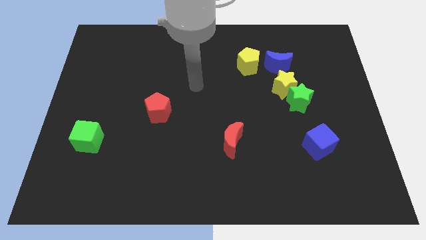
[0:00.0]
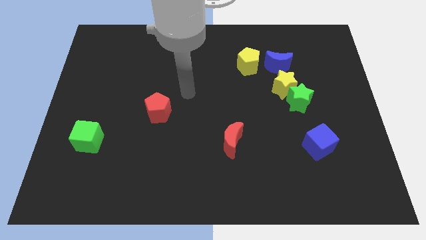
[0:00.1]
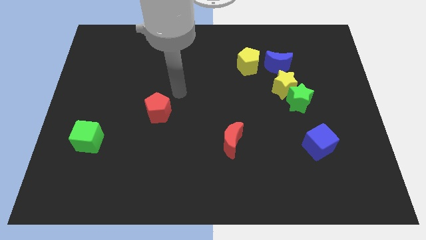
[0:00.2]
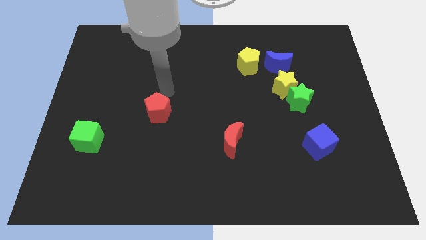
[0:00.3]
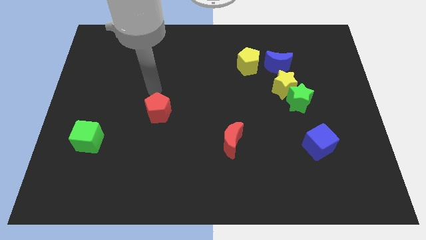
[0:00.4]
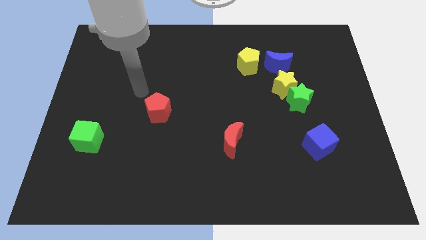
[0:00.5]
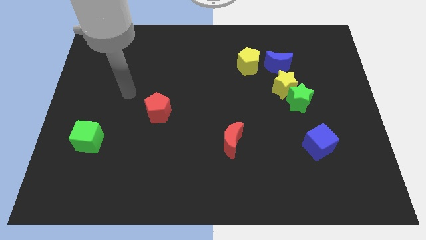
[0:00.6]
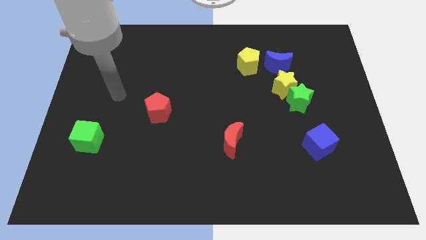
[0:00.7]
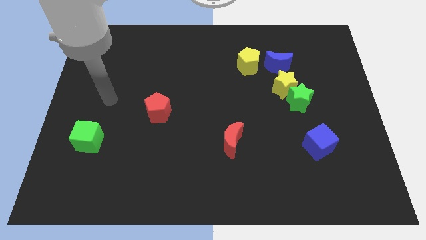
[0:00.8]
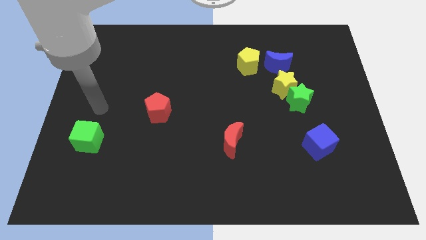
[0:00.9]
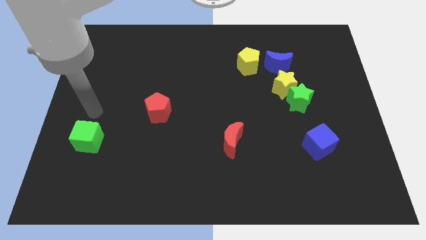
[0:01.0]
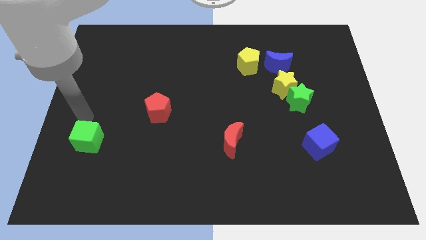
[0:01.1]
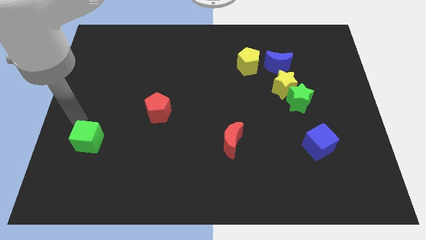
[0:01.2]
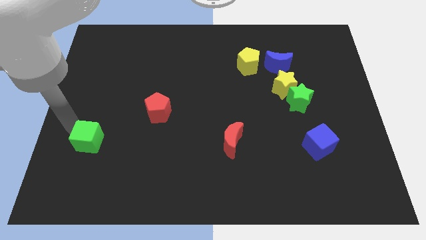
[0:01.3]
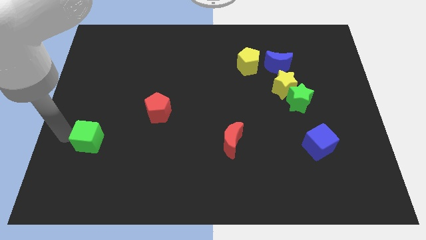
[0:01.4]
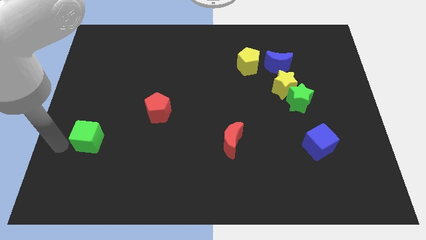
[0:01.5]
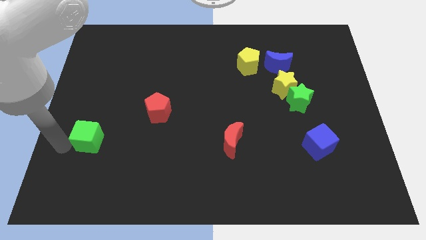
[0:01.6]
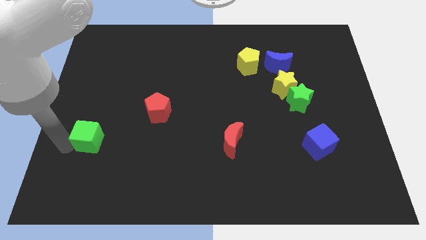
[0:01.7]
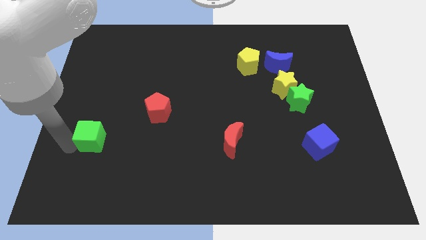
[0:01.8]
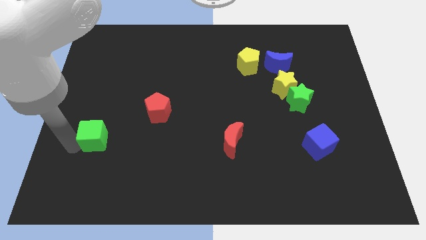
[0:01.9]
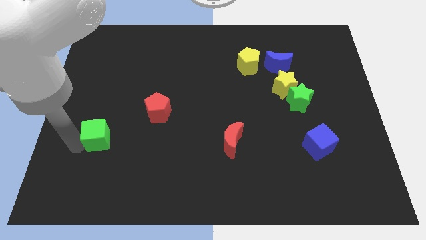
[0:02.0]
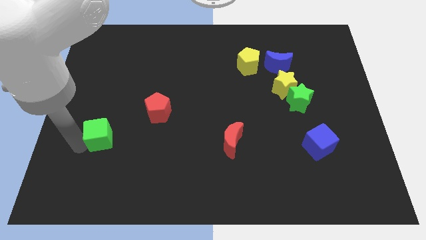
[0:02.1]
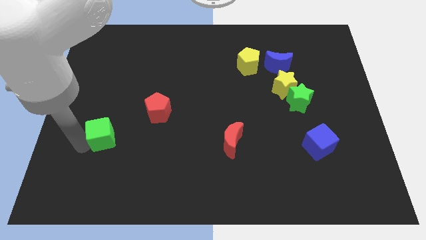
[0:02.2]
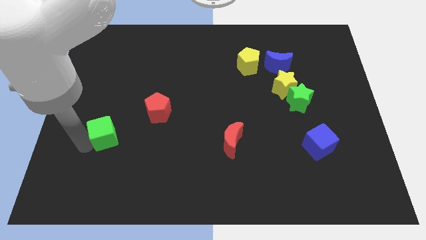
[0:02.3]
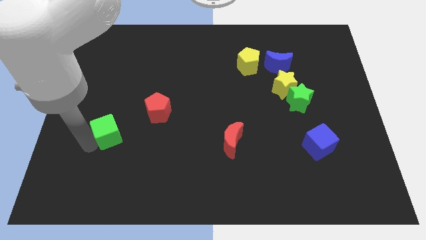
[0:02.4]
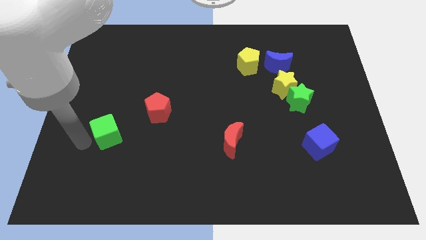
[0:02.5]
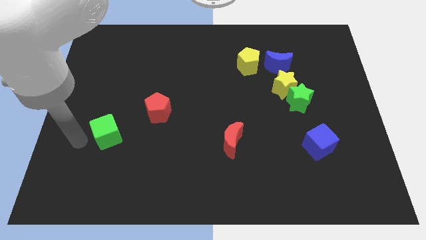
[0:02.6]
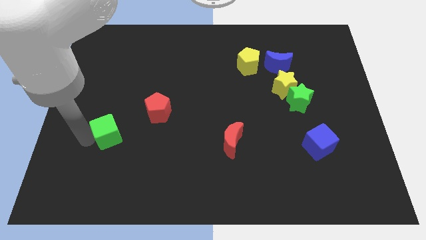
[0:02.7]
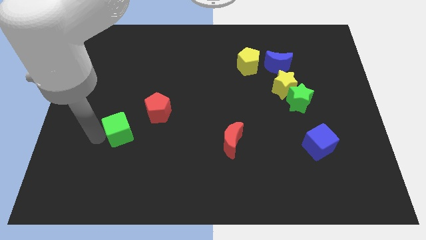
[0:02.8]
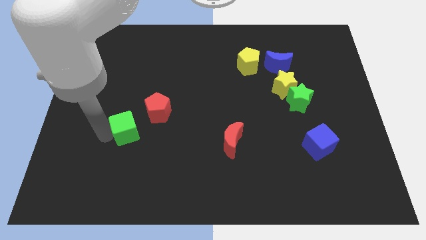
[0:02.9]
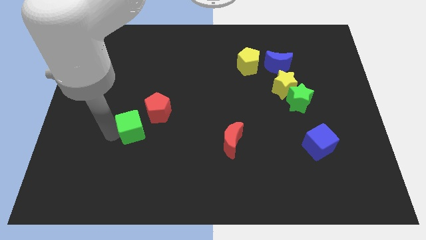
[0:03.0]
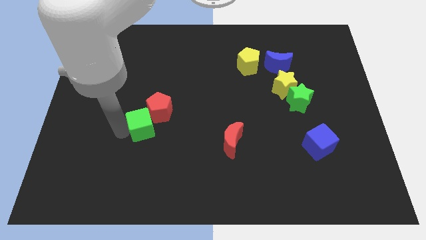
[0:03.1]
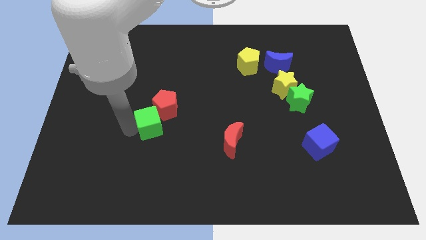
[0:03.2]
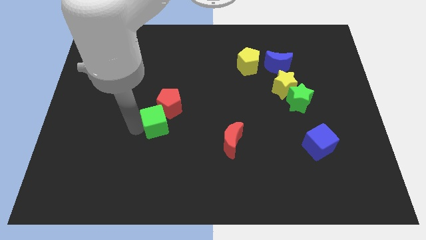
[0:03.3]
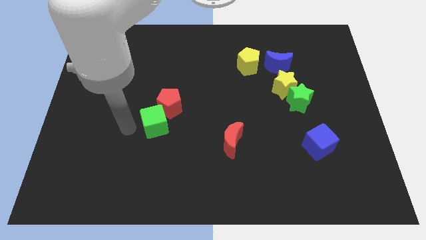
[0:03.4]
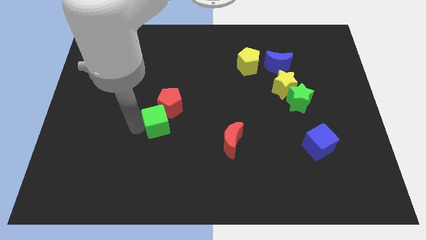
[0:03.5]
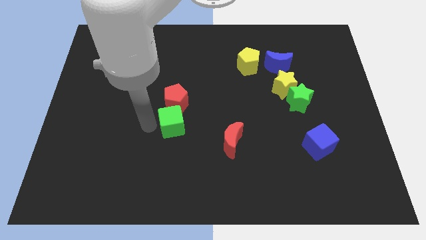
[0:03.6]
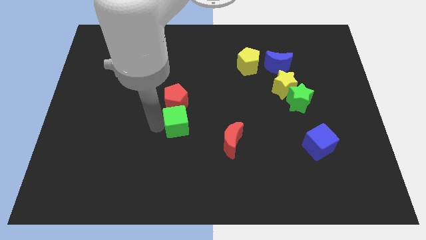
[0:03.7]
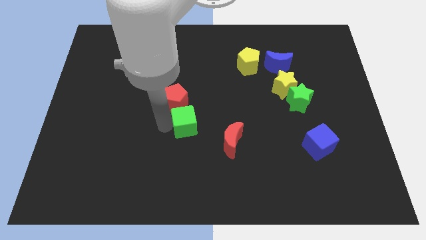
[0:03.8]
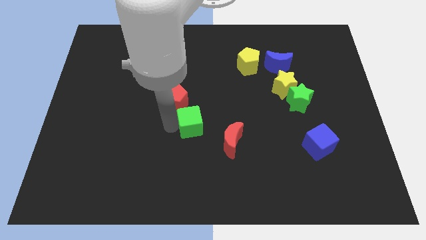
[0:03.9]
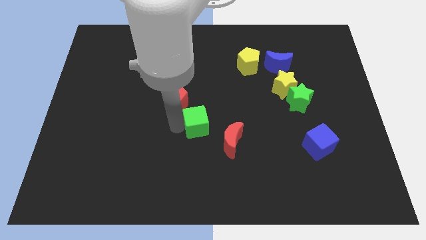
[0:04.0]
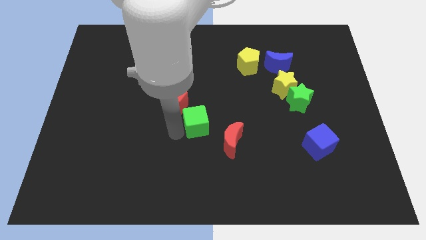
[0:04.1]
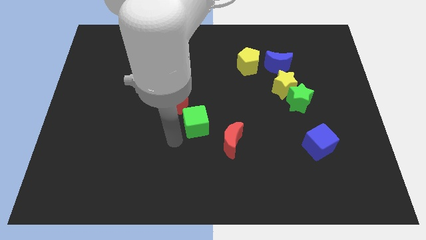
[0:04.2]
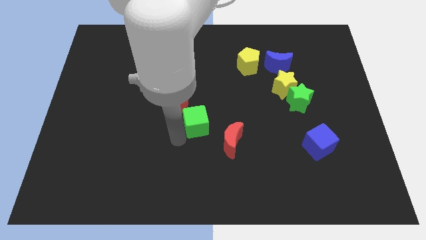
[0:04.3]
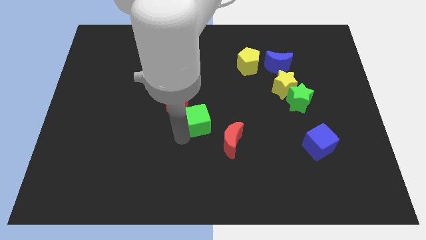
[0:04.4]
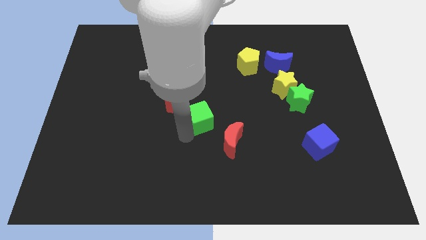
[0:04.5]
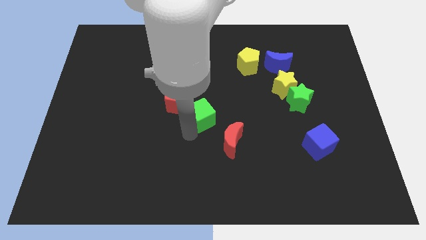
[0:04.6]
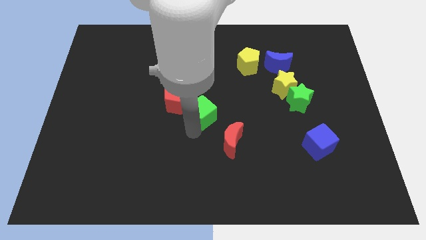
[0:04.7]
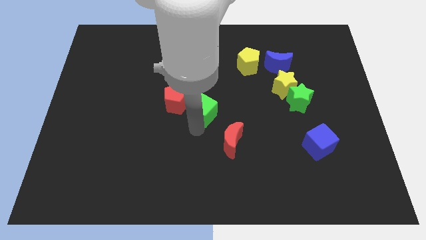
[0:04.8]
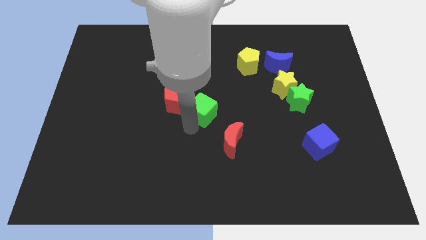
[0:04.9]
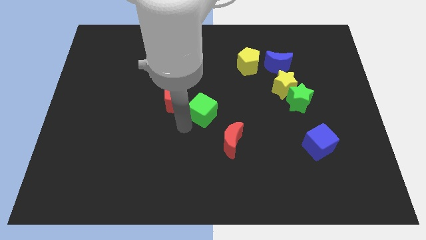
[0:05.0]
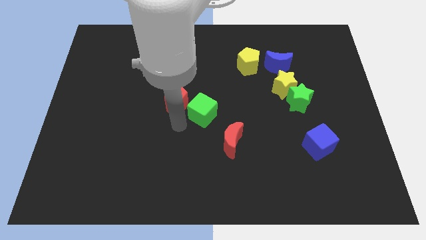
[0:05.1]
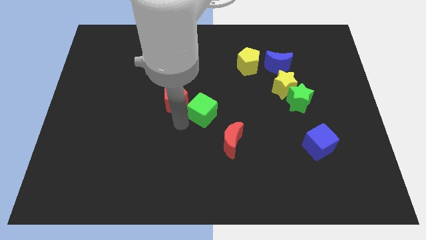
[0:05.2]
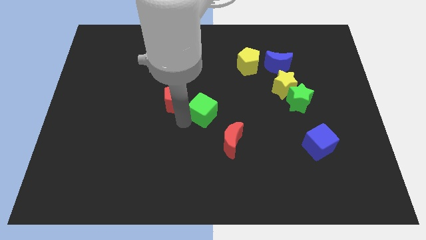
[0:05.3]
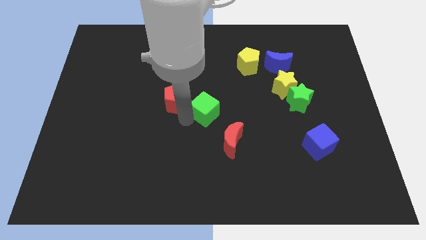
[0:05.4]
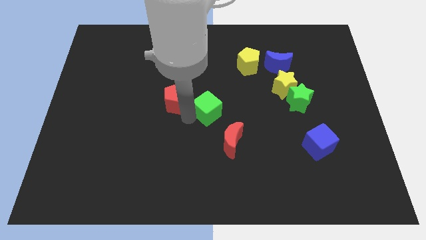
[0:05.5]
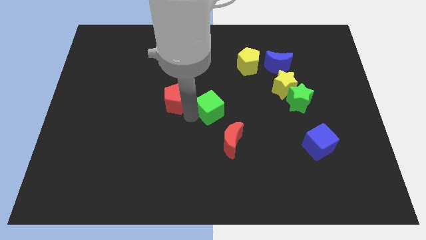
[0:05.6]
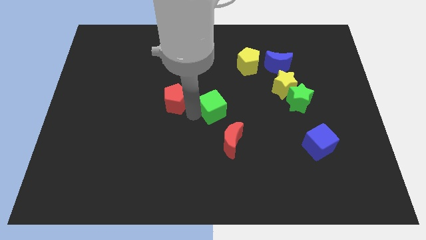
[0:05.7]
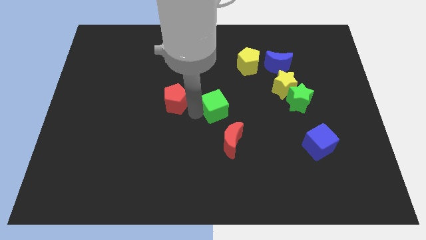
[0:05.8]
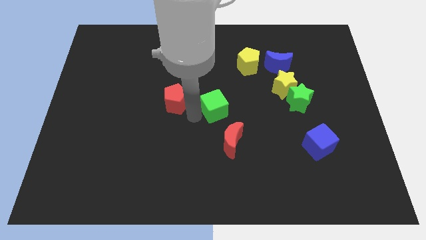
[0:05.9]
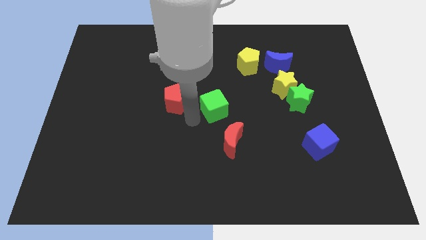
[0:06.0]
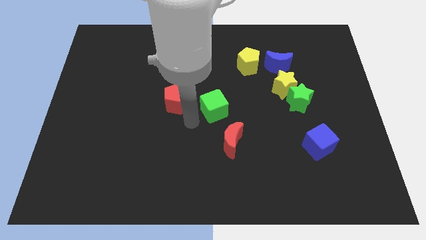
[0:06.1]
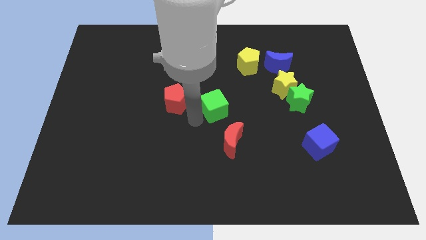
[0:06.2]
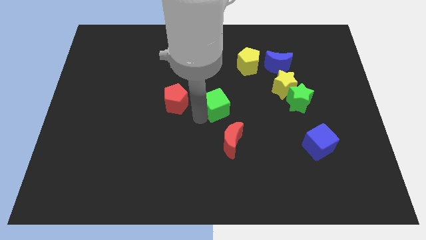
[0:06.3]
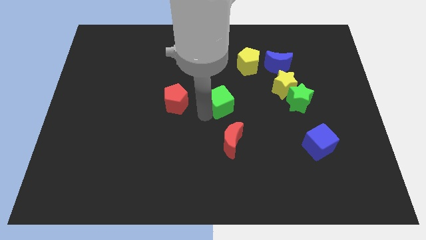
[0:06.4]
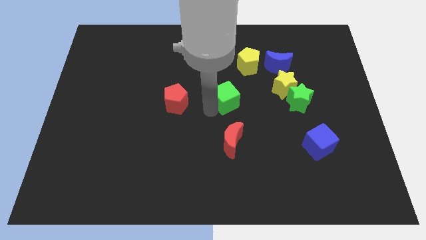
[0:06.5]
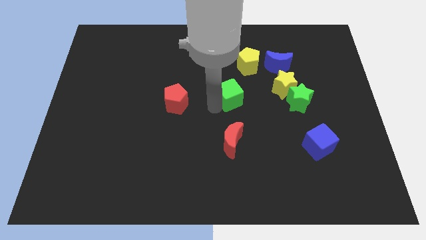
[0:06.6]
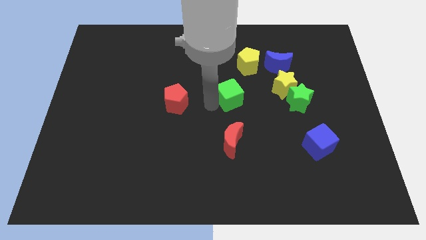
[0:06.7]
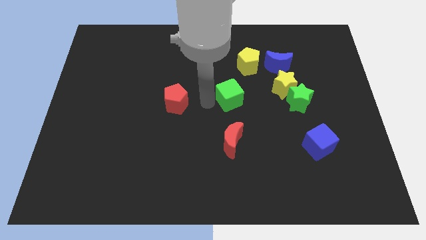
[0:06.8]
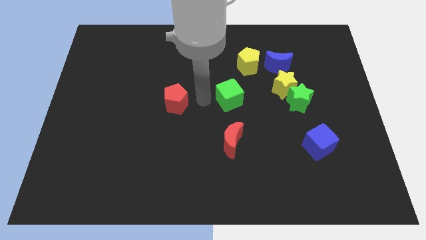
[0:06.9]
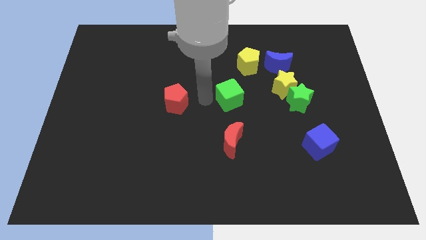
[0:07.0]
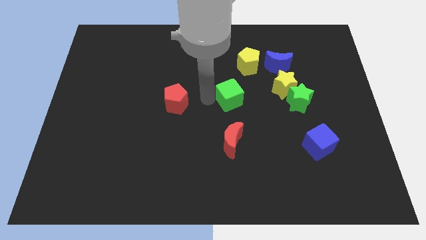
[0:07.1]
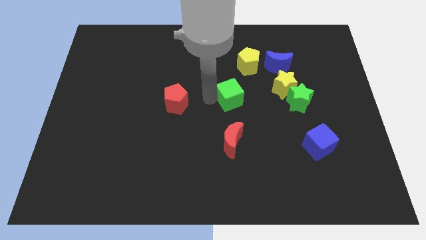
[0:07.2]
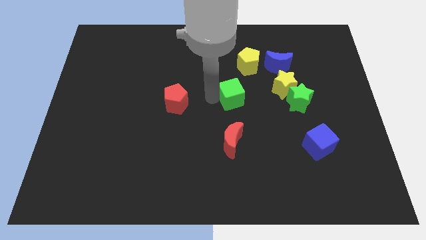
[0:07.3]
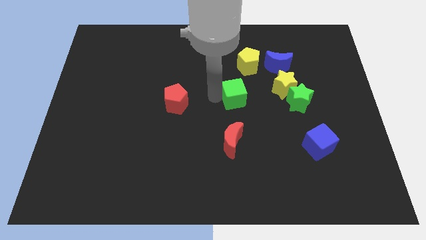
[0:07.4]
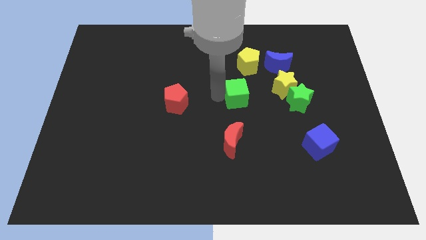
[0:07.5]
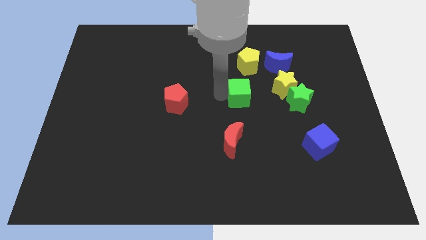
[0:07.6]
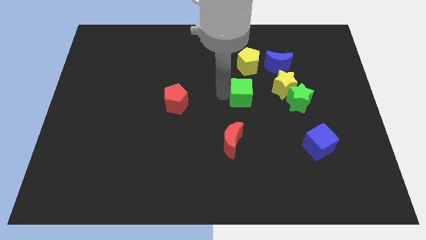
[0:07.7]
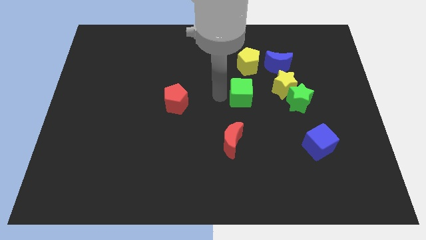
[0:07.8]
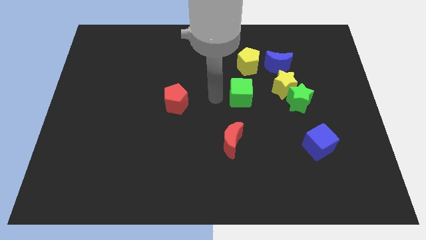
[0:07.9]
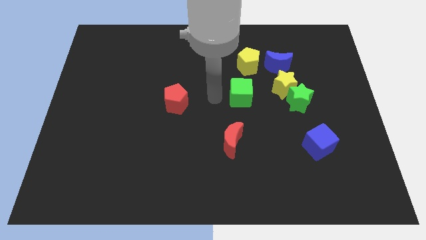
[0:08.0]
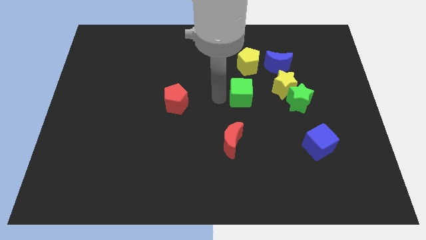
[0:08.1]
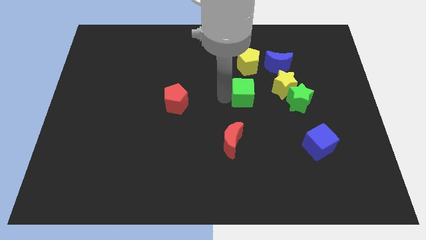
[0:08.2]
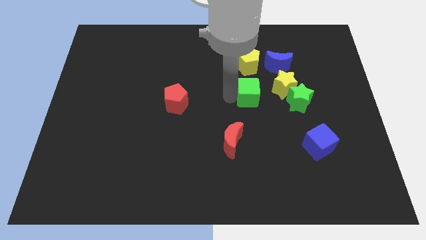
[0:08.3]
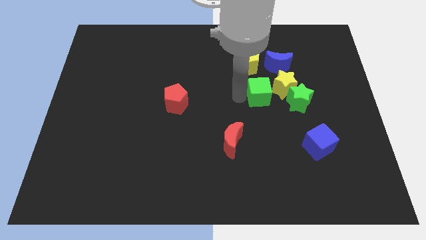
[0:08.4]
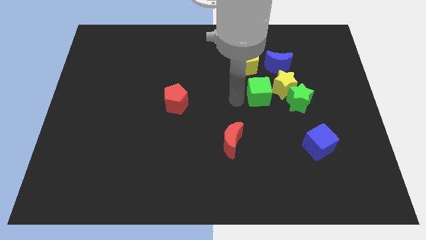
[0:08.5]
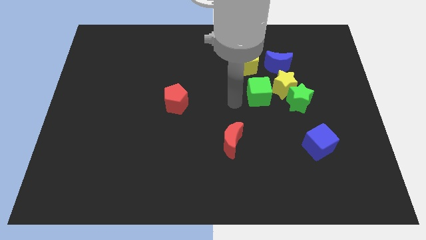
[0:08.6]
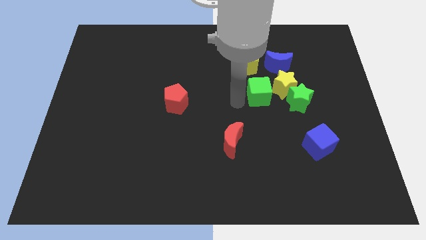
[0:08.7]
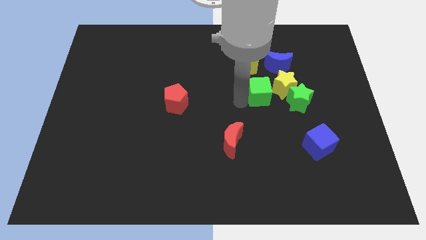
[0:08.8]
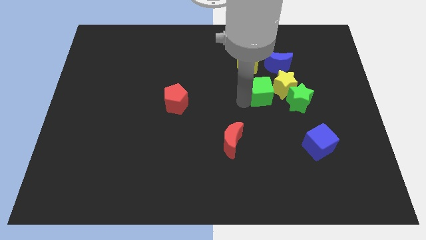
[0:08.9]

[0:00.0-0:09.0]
slide the green cube to the yellow star
